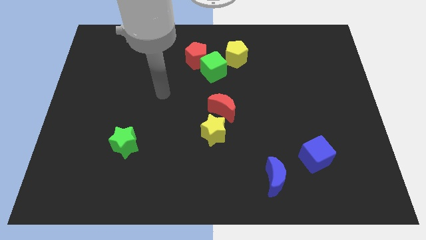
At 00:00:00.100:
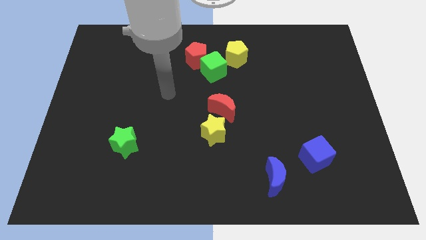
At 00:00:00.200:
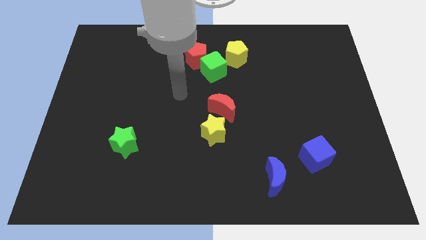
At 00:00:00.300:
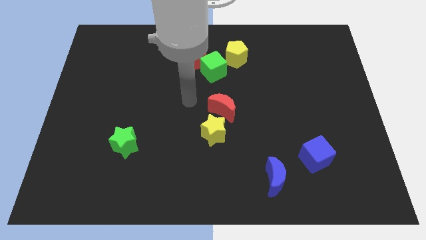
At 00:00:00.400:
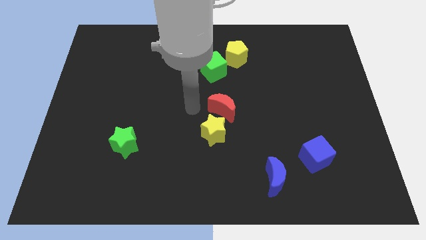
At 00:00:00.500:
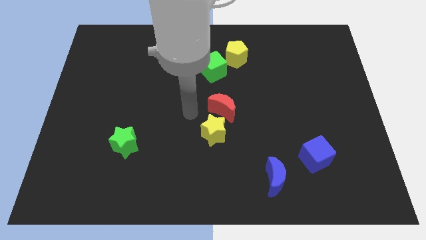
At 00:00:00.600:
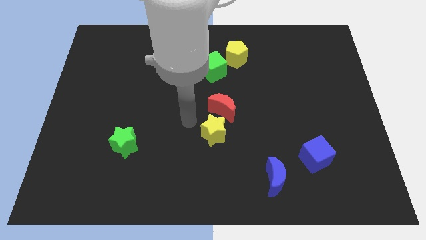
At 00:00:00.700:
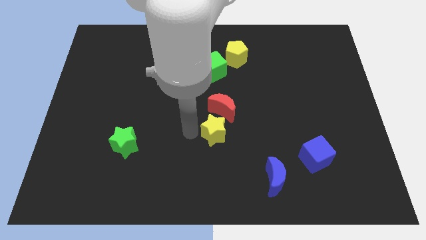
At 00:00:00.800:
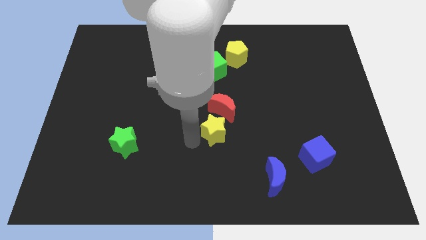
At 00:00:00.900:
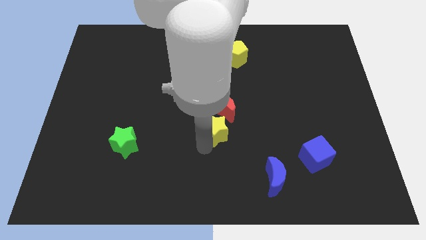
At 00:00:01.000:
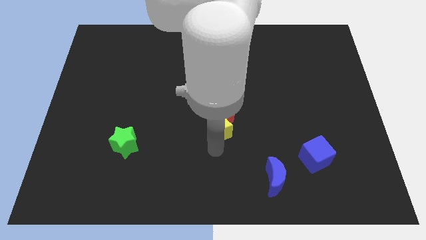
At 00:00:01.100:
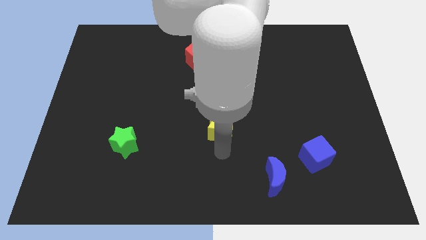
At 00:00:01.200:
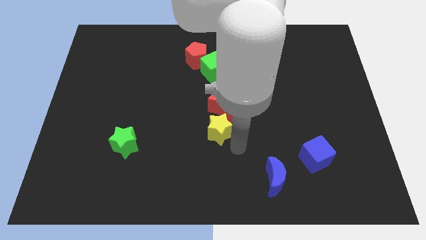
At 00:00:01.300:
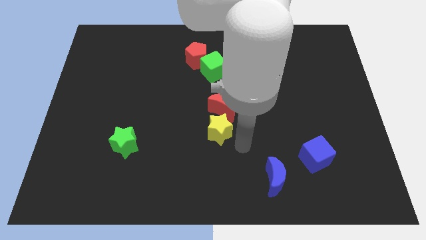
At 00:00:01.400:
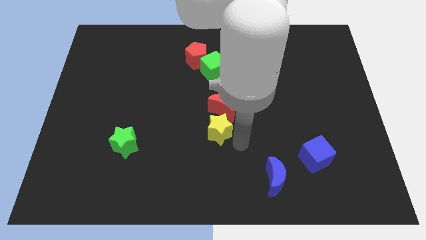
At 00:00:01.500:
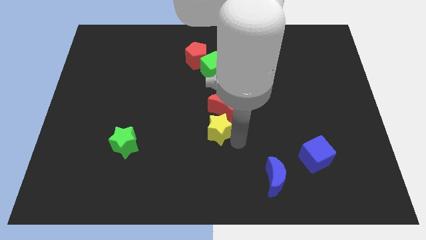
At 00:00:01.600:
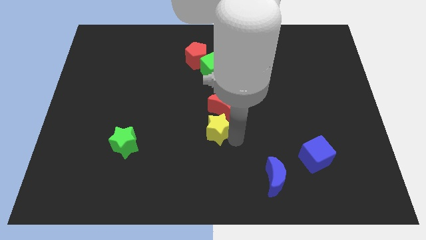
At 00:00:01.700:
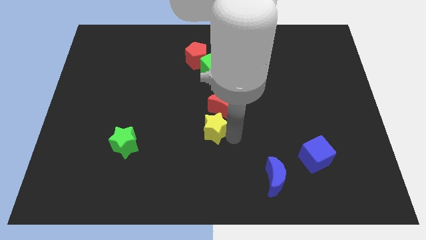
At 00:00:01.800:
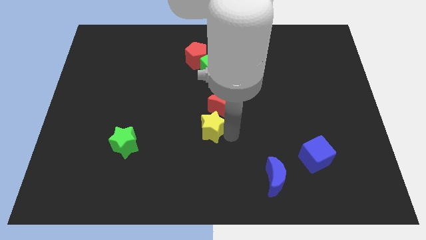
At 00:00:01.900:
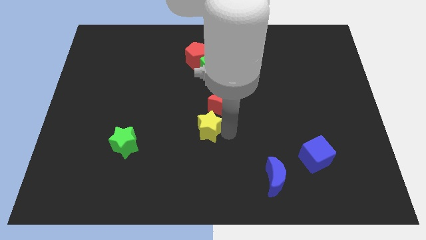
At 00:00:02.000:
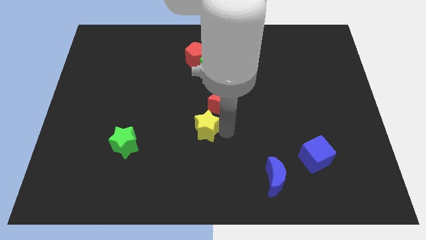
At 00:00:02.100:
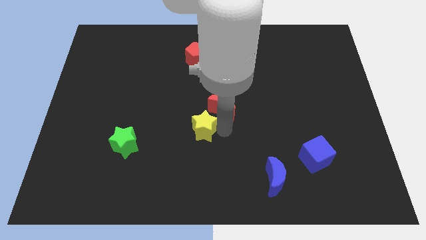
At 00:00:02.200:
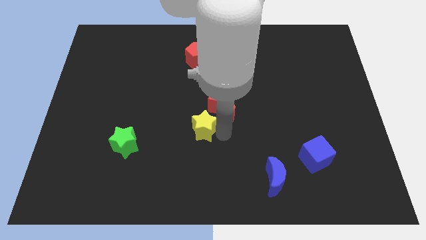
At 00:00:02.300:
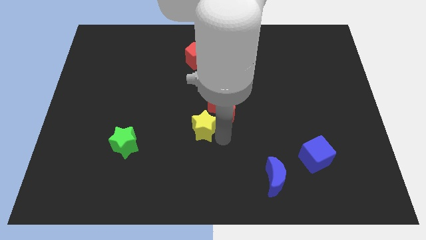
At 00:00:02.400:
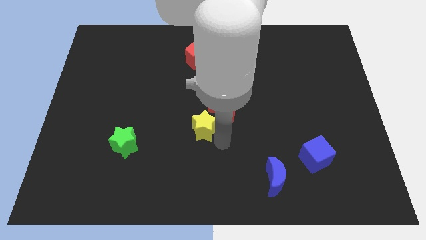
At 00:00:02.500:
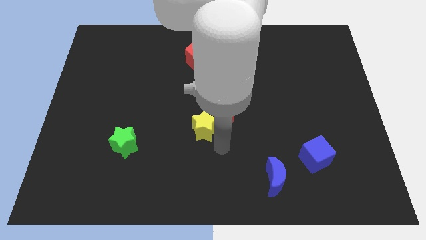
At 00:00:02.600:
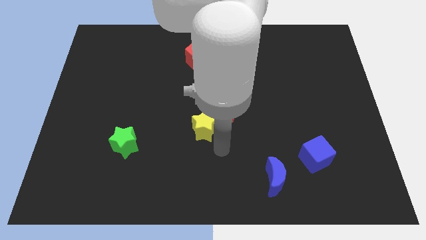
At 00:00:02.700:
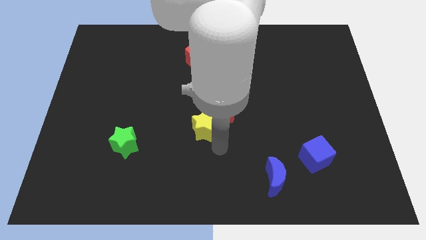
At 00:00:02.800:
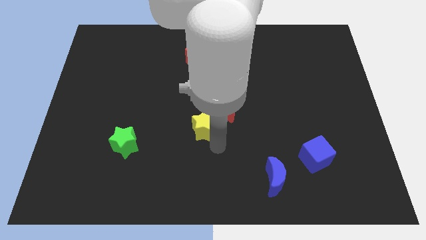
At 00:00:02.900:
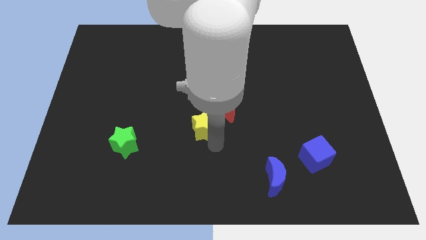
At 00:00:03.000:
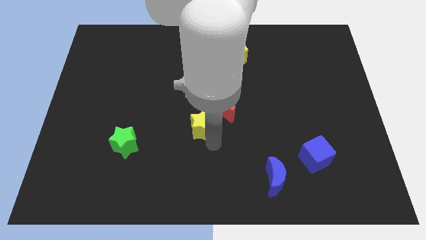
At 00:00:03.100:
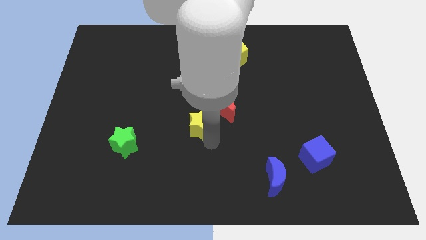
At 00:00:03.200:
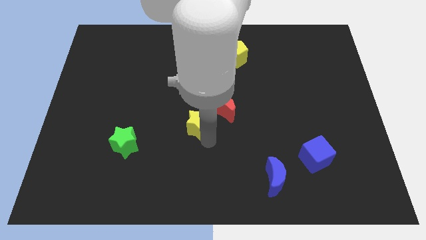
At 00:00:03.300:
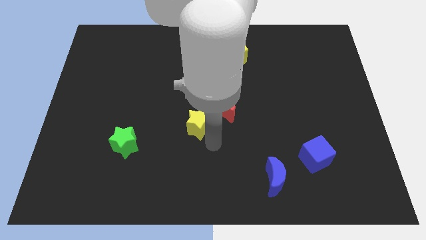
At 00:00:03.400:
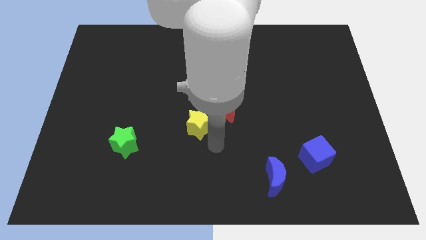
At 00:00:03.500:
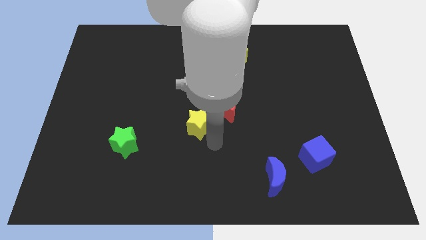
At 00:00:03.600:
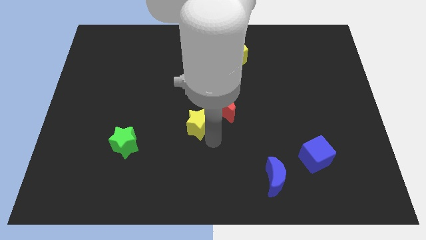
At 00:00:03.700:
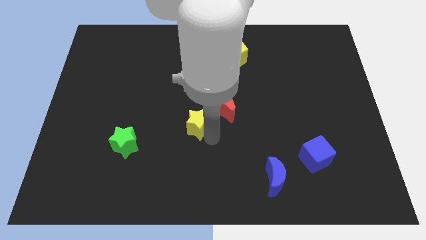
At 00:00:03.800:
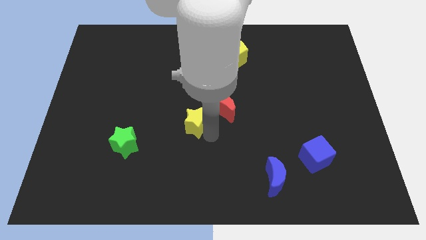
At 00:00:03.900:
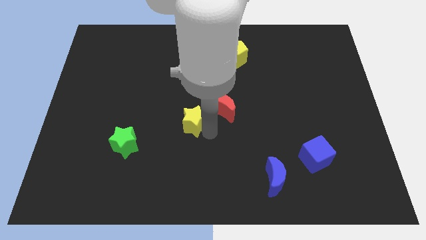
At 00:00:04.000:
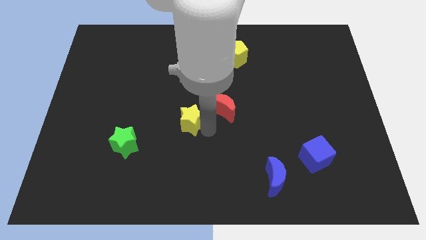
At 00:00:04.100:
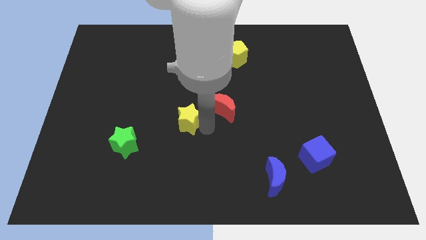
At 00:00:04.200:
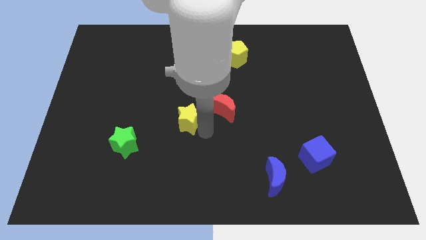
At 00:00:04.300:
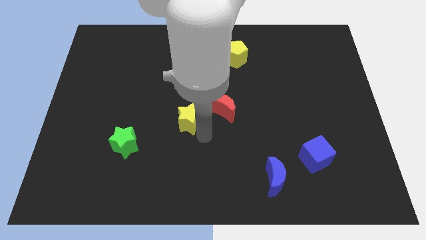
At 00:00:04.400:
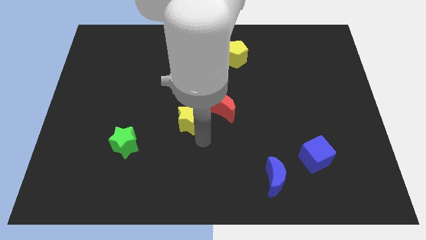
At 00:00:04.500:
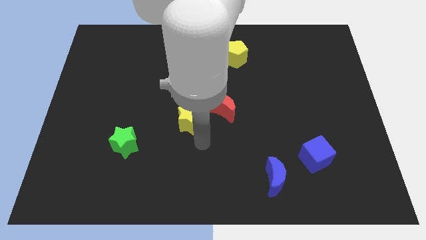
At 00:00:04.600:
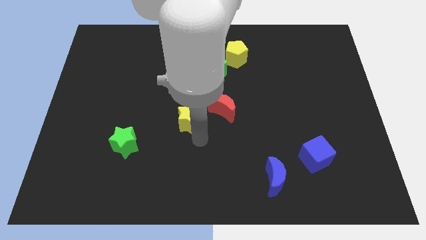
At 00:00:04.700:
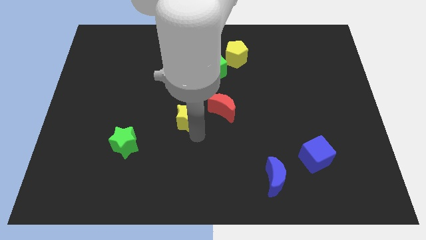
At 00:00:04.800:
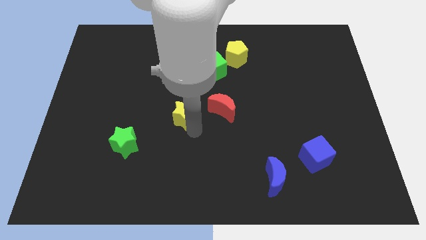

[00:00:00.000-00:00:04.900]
push the yellow star a little bit diagonally up and to the left

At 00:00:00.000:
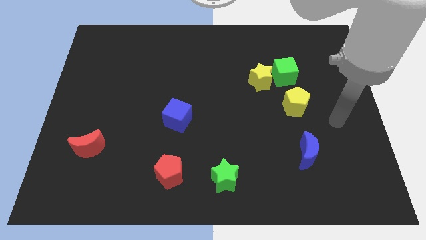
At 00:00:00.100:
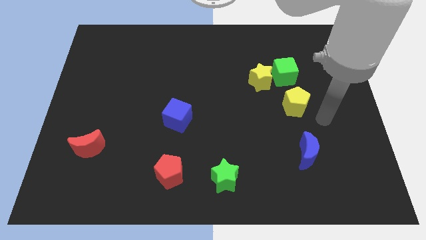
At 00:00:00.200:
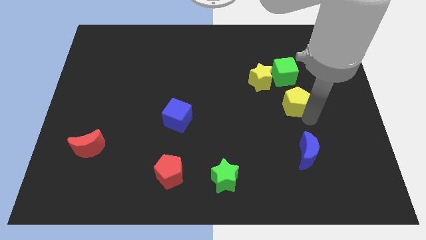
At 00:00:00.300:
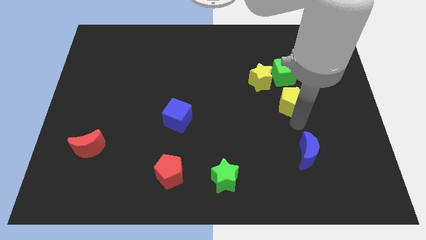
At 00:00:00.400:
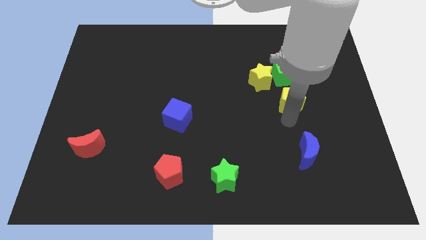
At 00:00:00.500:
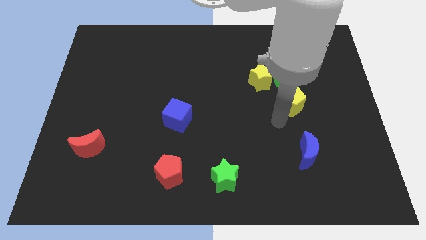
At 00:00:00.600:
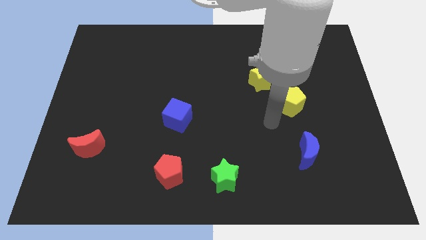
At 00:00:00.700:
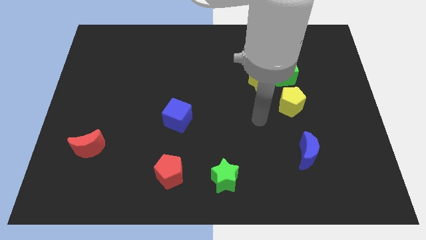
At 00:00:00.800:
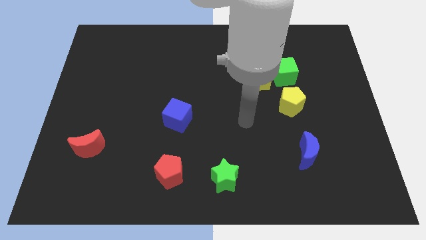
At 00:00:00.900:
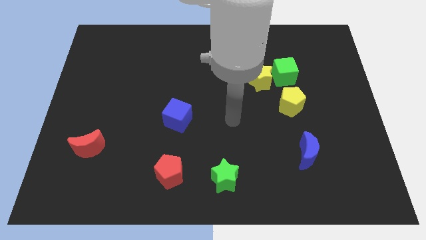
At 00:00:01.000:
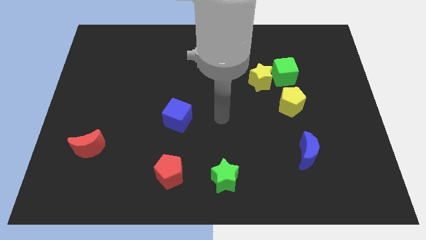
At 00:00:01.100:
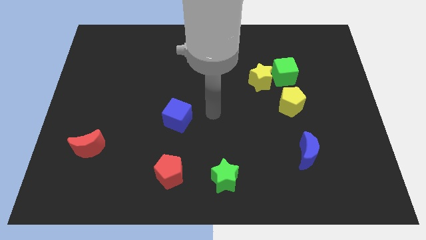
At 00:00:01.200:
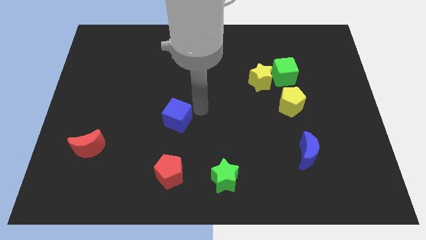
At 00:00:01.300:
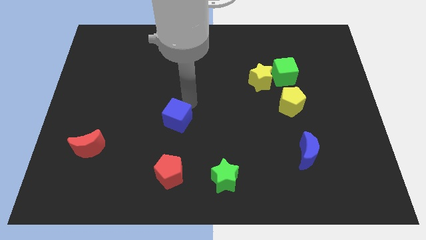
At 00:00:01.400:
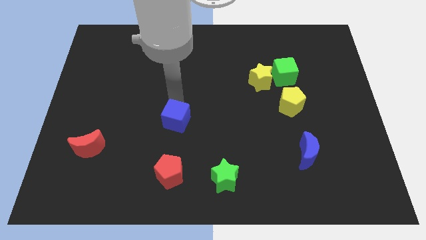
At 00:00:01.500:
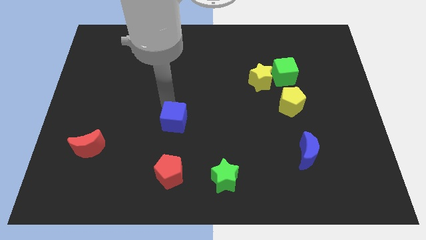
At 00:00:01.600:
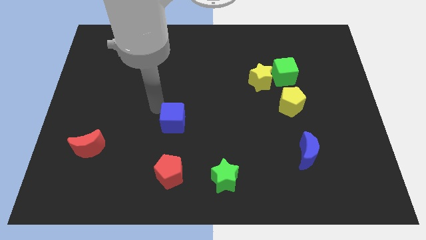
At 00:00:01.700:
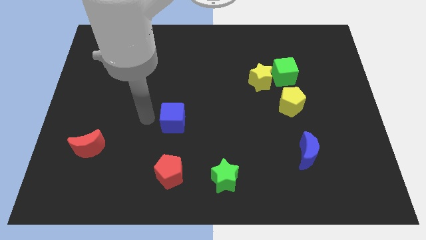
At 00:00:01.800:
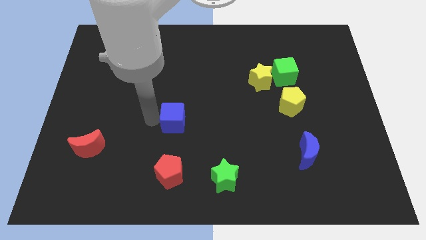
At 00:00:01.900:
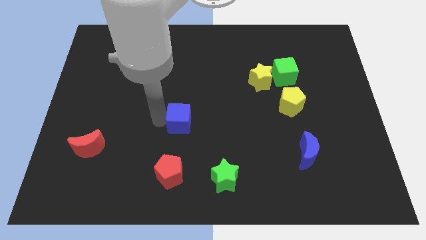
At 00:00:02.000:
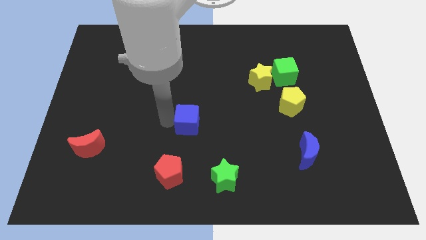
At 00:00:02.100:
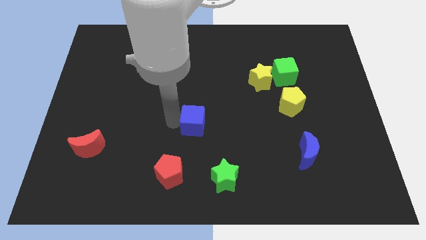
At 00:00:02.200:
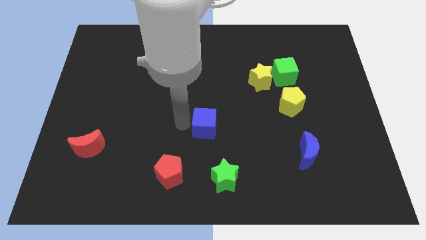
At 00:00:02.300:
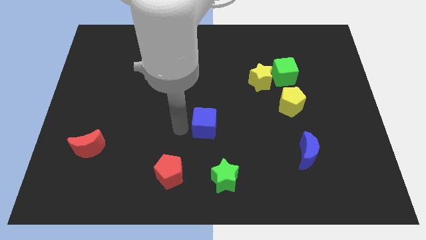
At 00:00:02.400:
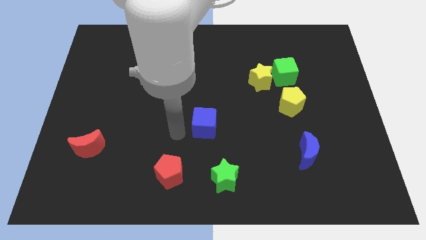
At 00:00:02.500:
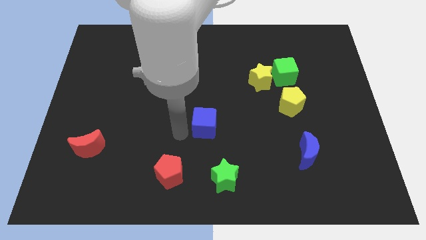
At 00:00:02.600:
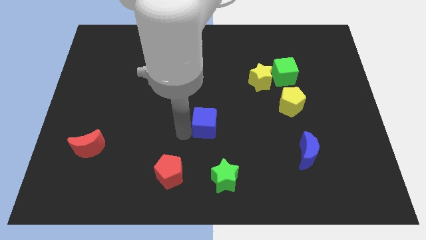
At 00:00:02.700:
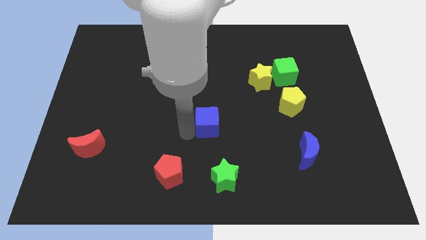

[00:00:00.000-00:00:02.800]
slightly push the blue cube to the right
